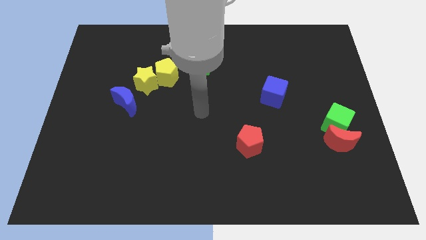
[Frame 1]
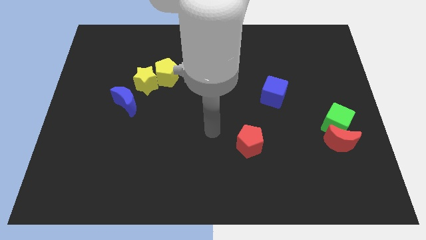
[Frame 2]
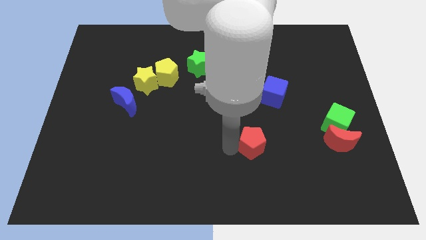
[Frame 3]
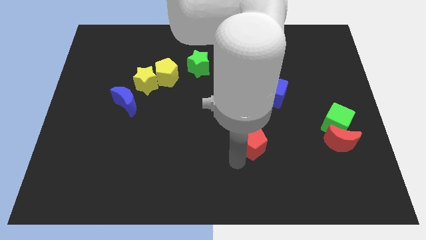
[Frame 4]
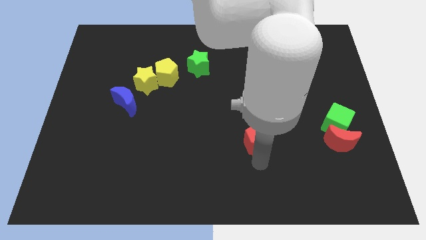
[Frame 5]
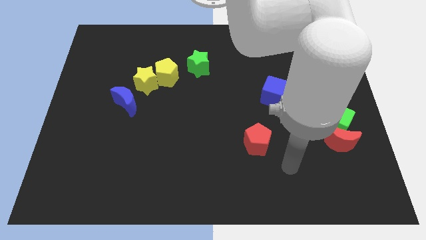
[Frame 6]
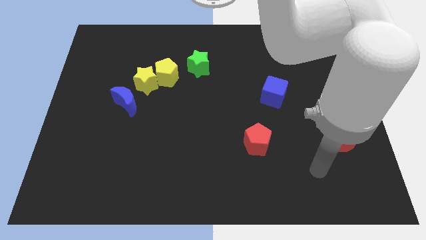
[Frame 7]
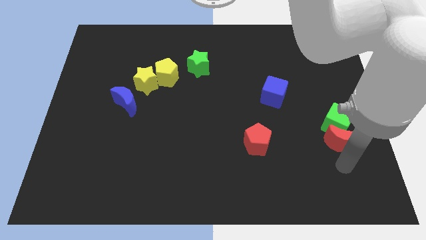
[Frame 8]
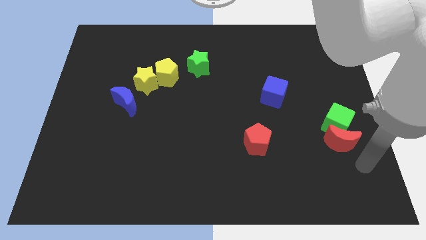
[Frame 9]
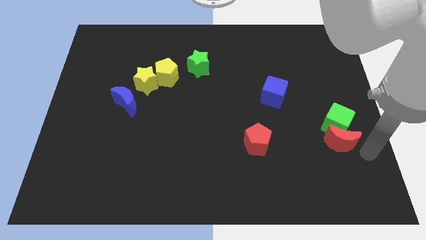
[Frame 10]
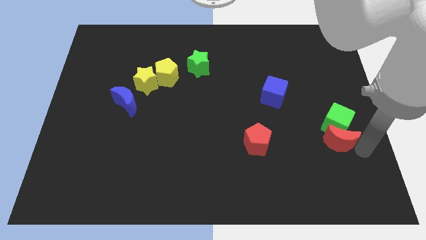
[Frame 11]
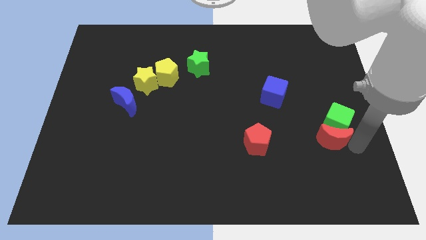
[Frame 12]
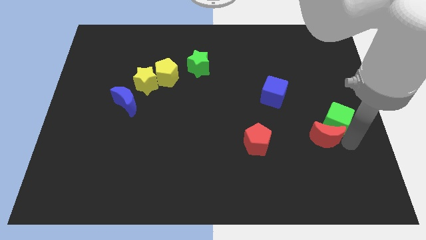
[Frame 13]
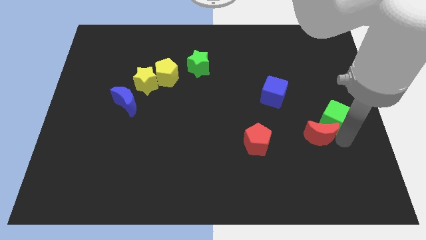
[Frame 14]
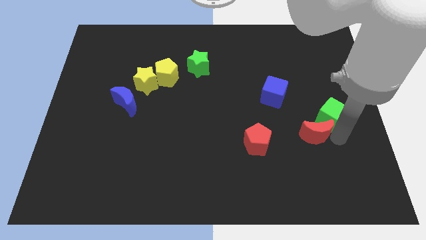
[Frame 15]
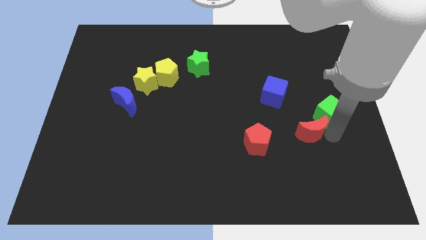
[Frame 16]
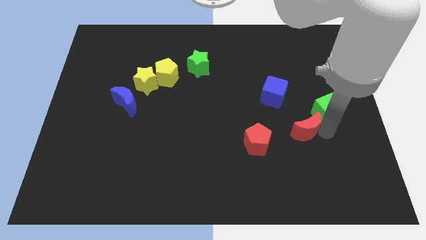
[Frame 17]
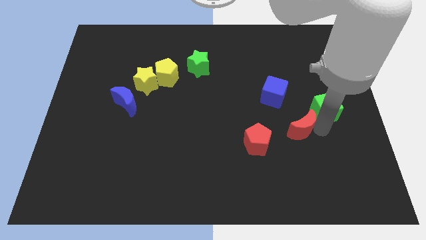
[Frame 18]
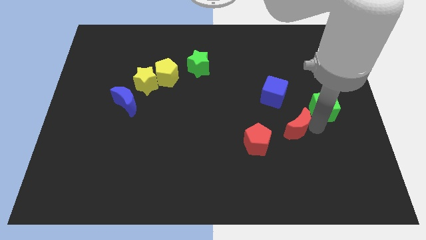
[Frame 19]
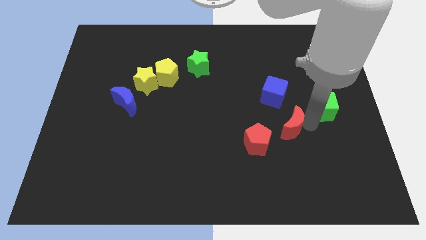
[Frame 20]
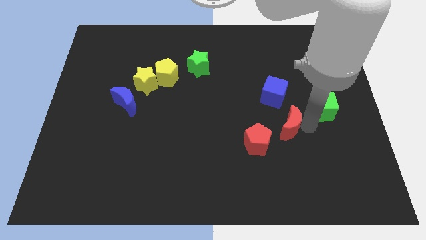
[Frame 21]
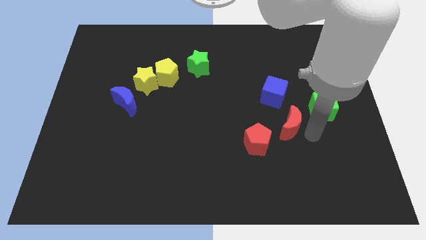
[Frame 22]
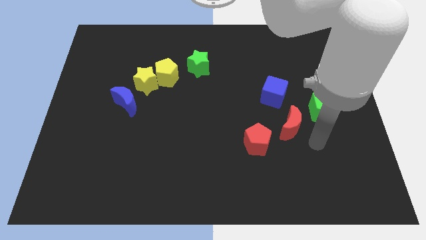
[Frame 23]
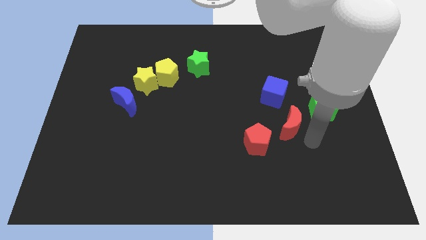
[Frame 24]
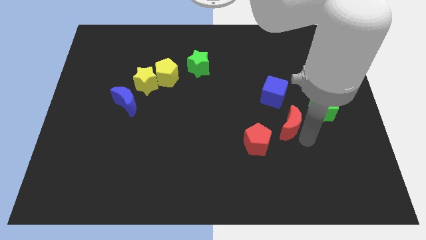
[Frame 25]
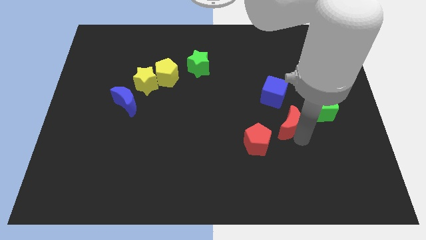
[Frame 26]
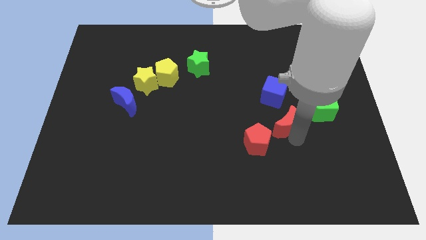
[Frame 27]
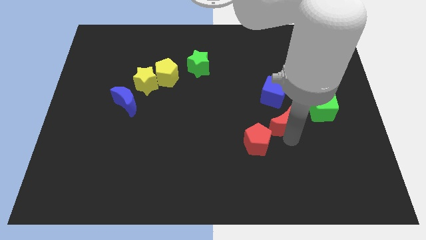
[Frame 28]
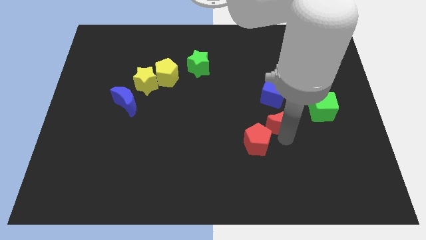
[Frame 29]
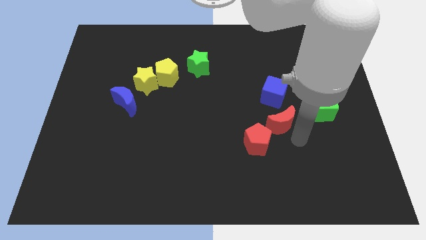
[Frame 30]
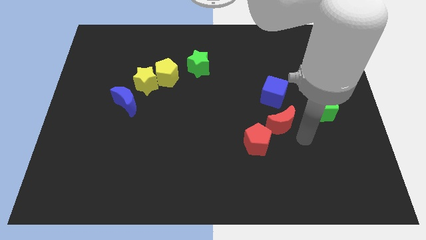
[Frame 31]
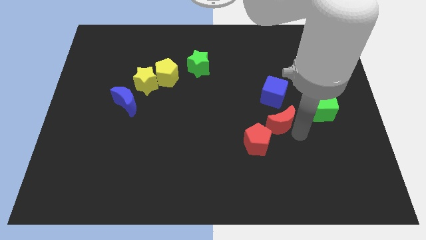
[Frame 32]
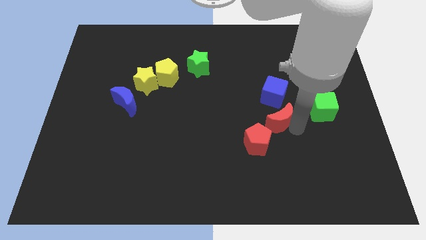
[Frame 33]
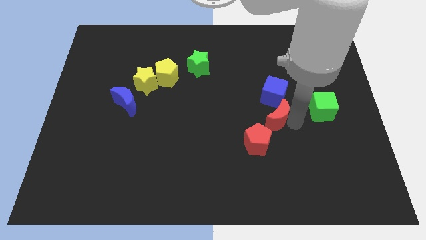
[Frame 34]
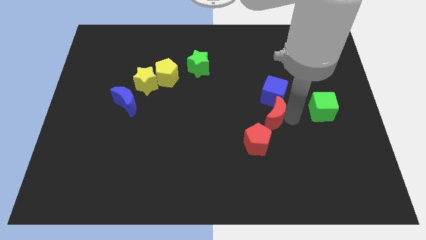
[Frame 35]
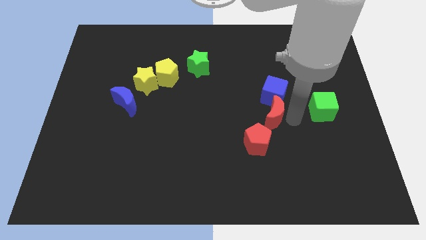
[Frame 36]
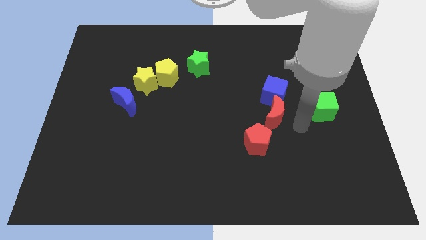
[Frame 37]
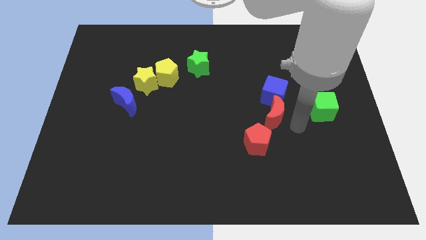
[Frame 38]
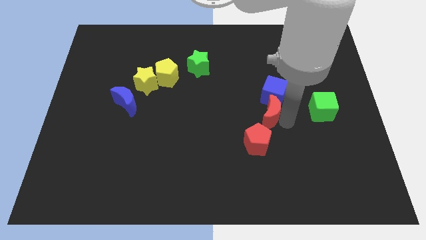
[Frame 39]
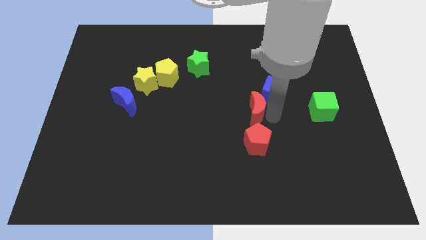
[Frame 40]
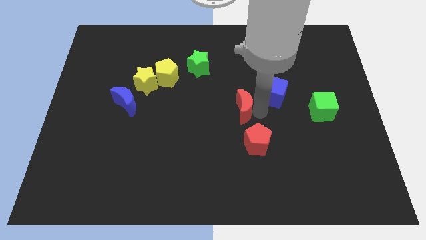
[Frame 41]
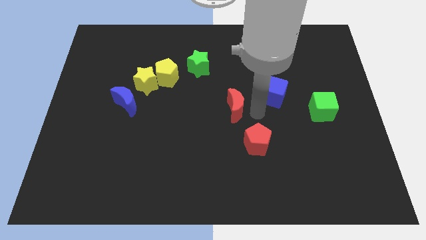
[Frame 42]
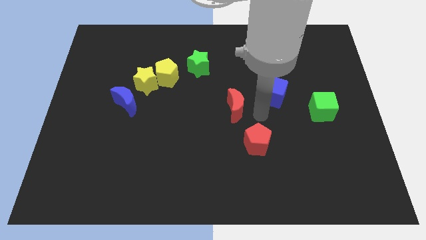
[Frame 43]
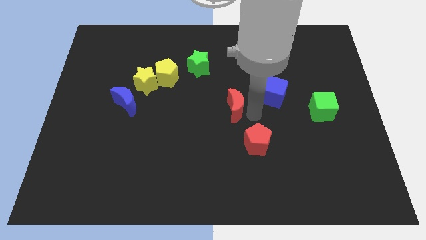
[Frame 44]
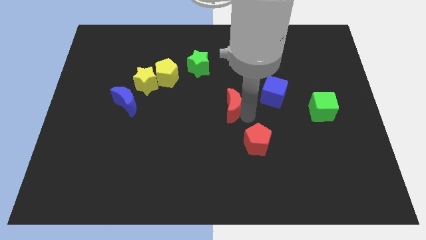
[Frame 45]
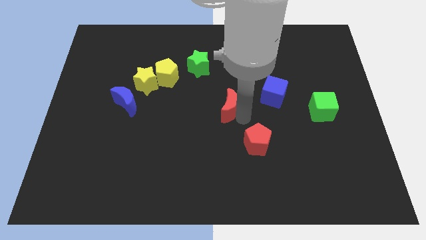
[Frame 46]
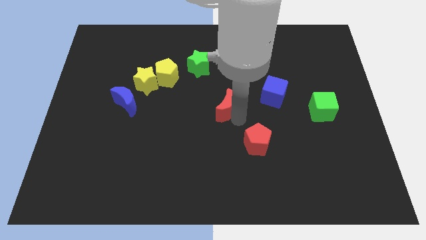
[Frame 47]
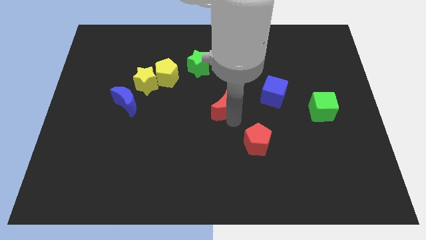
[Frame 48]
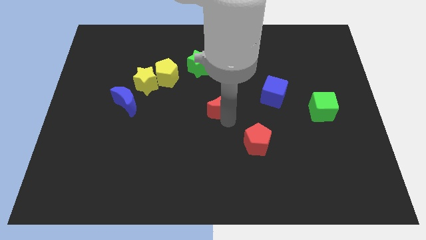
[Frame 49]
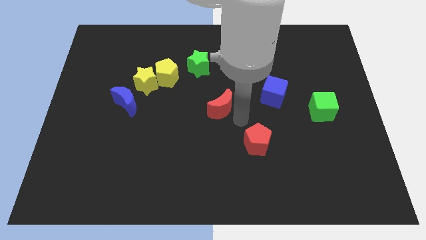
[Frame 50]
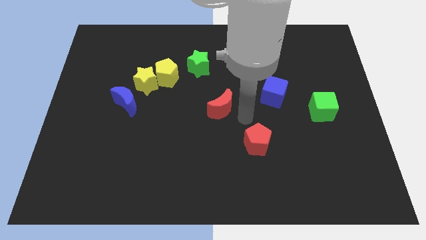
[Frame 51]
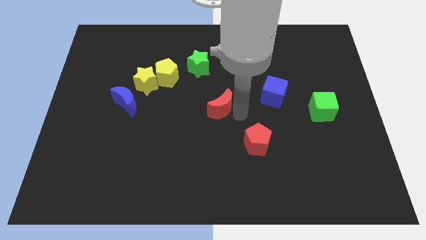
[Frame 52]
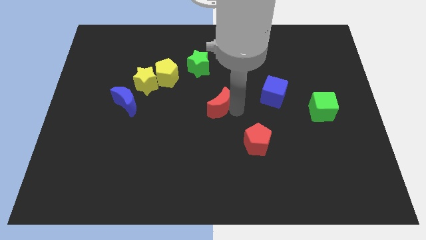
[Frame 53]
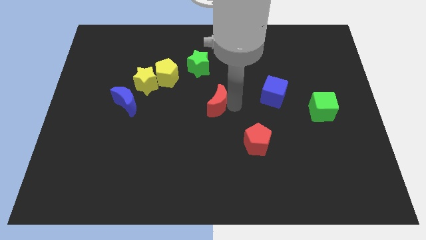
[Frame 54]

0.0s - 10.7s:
slide the red moon to the bottom of the green star

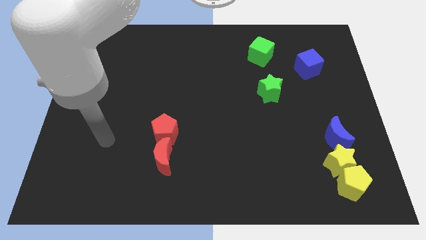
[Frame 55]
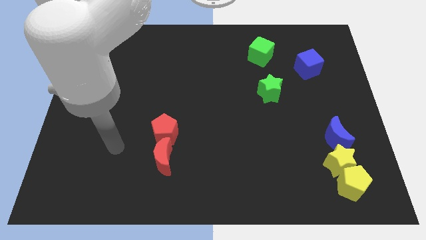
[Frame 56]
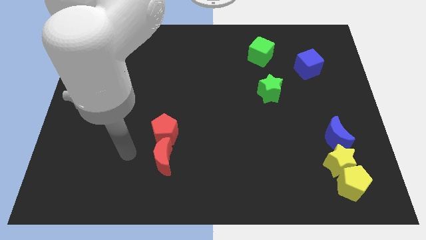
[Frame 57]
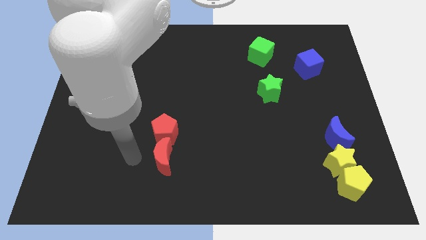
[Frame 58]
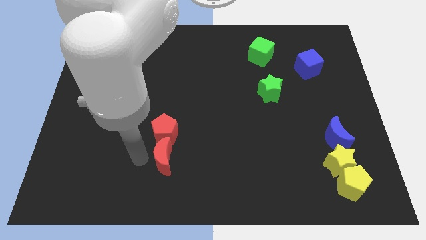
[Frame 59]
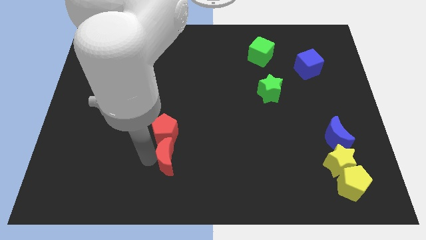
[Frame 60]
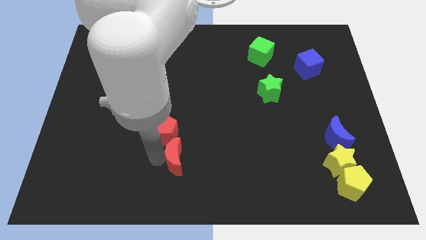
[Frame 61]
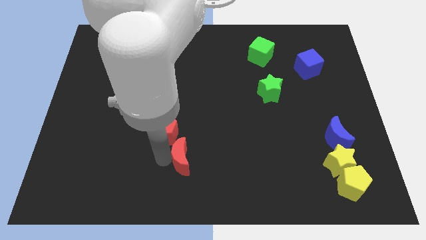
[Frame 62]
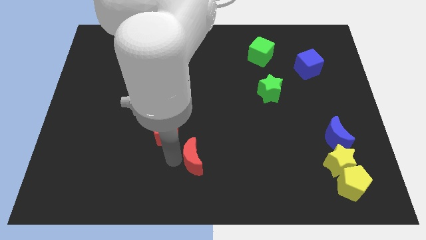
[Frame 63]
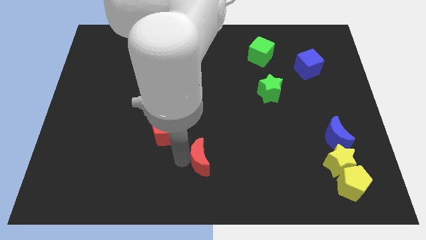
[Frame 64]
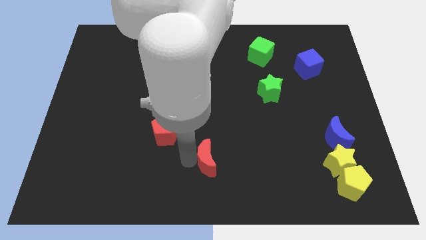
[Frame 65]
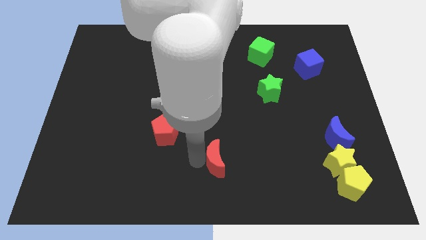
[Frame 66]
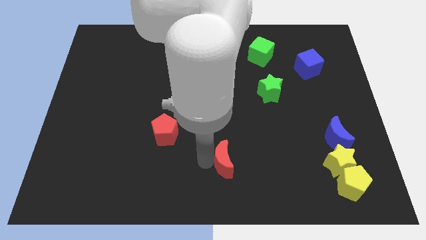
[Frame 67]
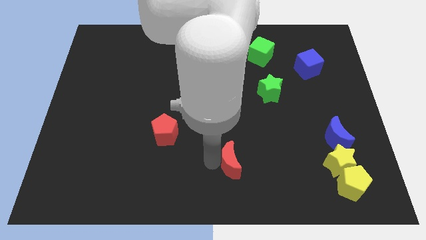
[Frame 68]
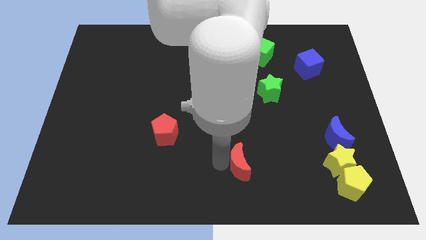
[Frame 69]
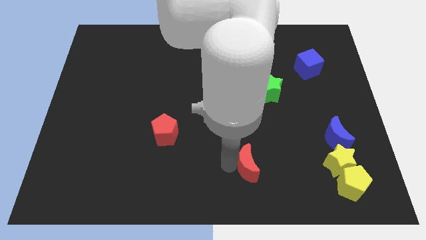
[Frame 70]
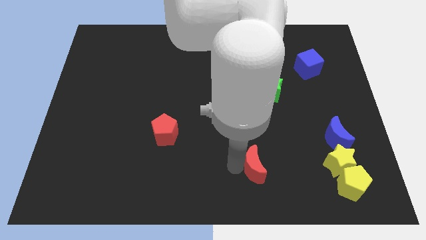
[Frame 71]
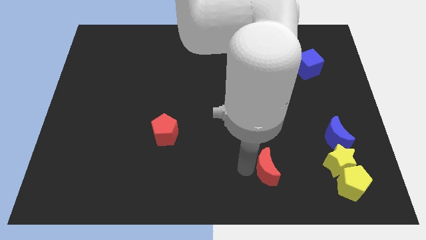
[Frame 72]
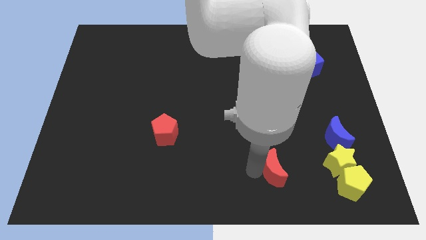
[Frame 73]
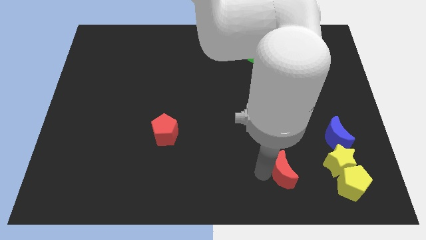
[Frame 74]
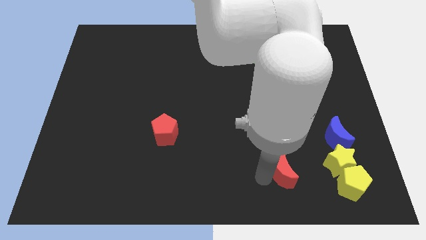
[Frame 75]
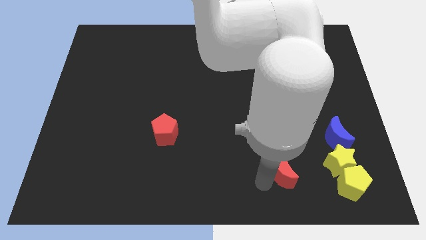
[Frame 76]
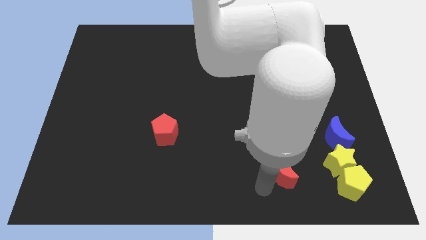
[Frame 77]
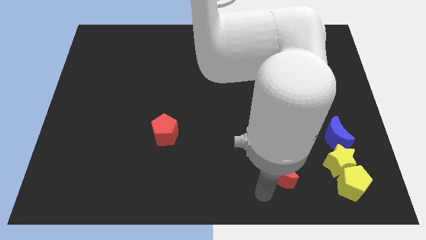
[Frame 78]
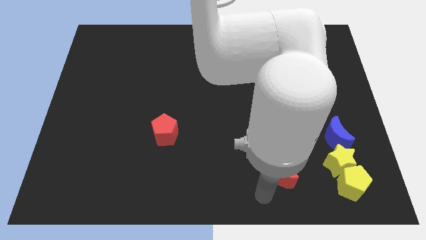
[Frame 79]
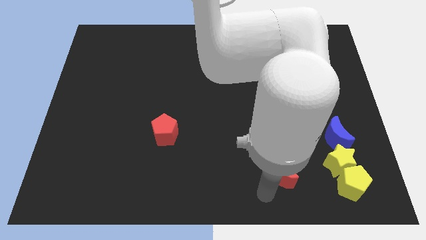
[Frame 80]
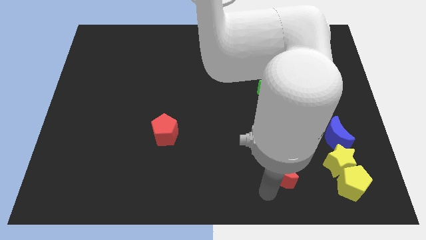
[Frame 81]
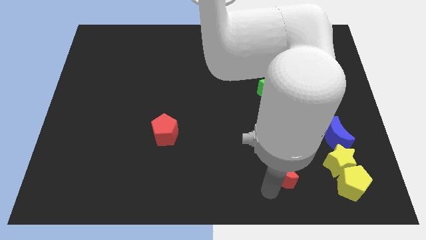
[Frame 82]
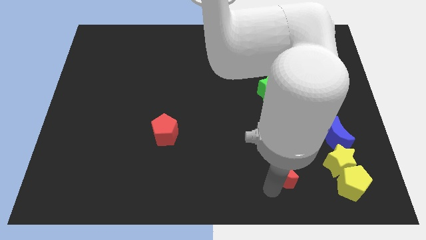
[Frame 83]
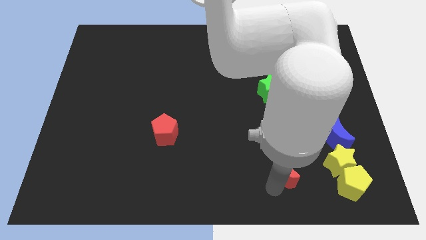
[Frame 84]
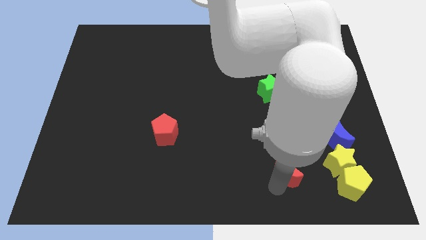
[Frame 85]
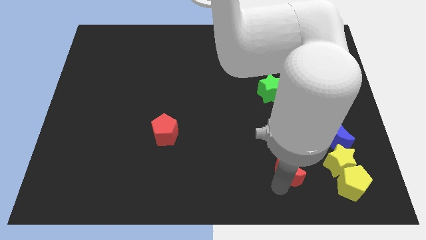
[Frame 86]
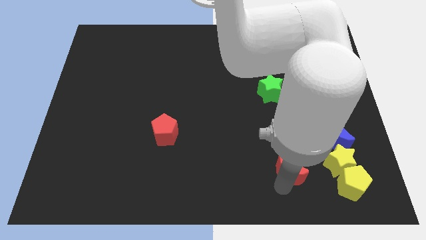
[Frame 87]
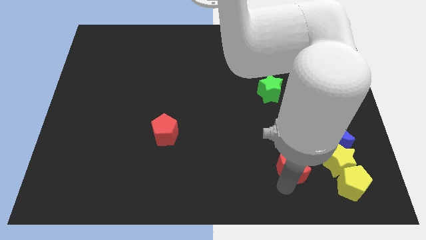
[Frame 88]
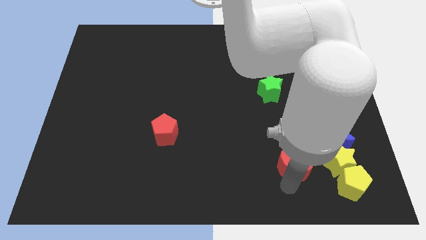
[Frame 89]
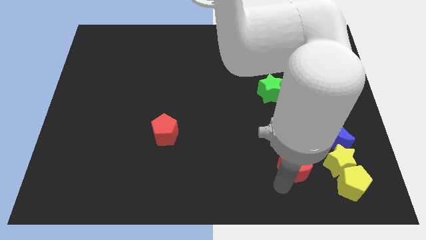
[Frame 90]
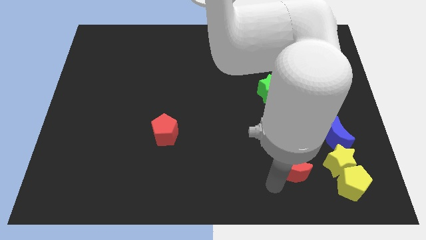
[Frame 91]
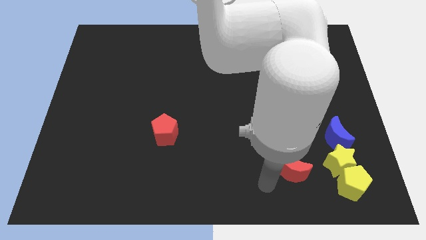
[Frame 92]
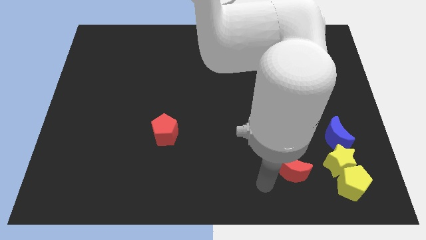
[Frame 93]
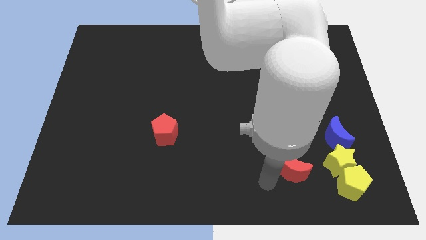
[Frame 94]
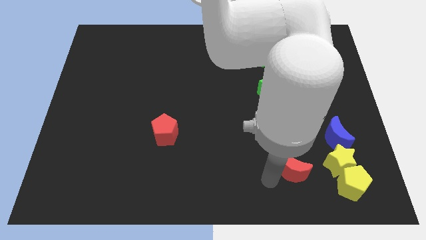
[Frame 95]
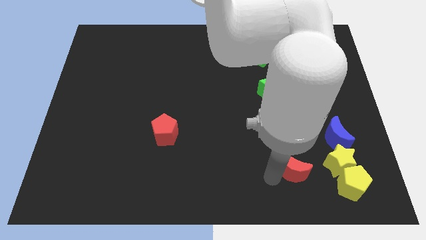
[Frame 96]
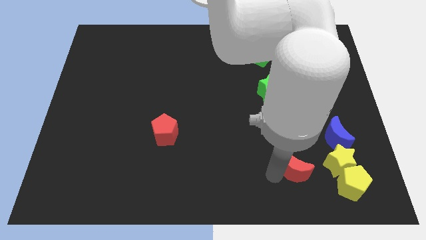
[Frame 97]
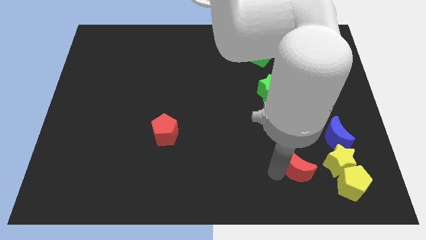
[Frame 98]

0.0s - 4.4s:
put the red moon to the bottom left of the blue moon
